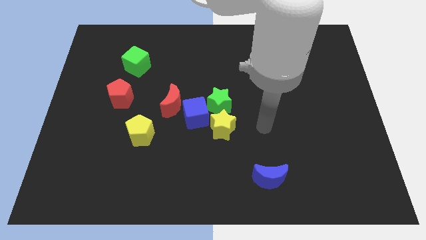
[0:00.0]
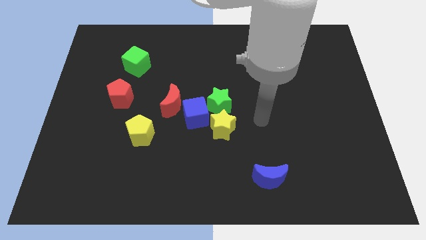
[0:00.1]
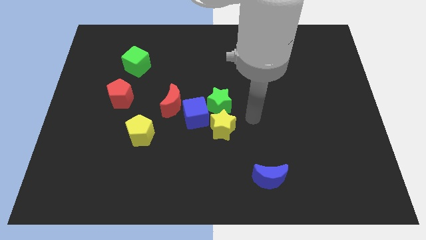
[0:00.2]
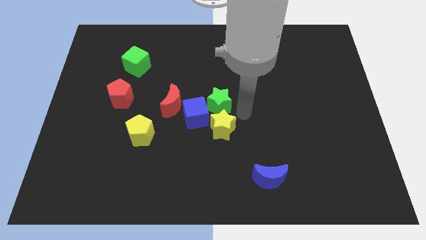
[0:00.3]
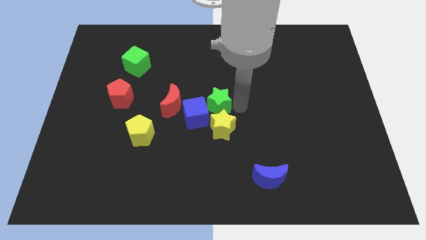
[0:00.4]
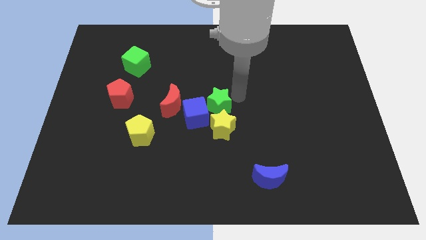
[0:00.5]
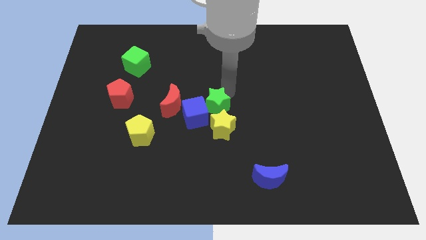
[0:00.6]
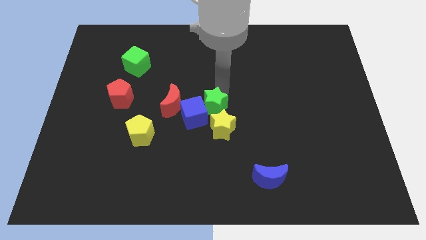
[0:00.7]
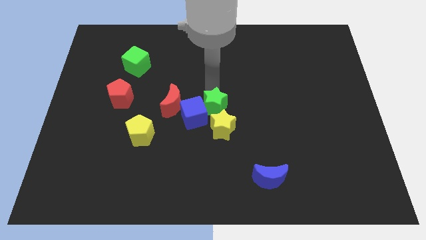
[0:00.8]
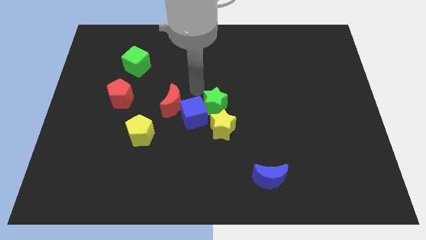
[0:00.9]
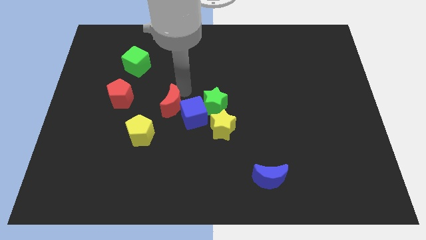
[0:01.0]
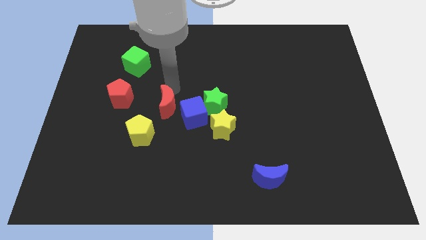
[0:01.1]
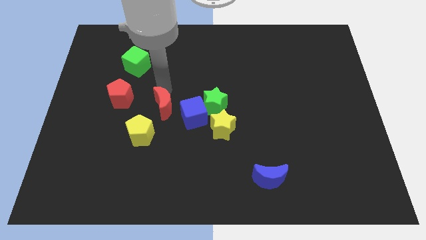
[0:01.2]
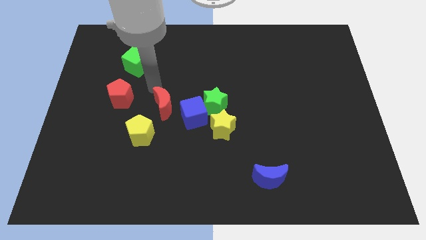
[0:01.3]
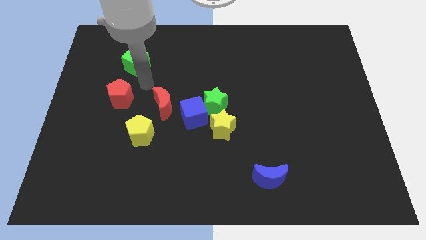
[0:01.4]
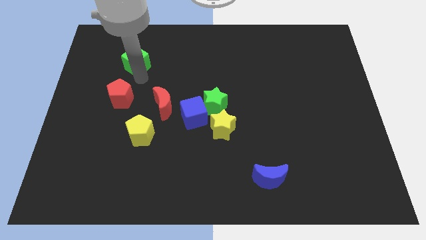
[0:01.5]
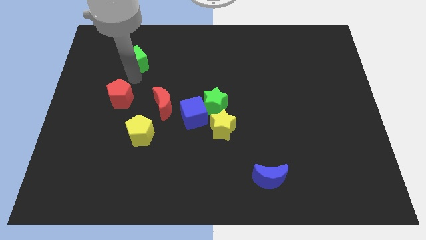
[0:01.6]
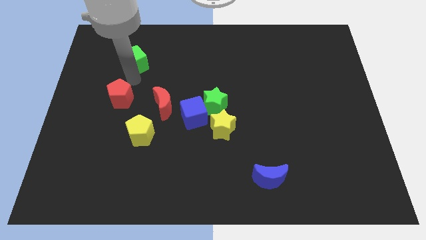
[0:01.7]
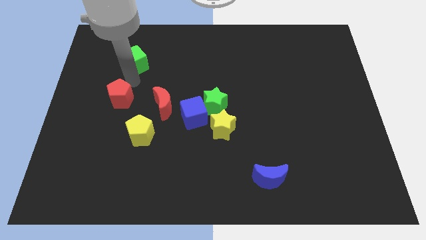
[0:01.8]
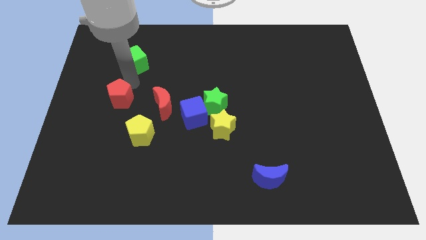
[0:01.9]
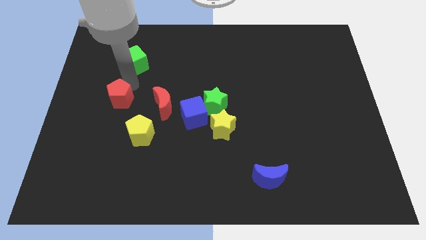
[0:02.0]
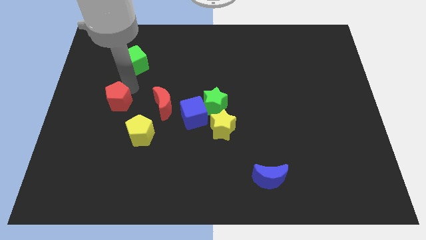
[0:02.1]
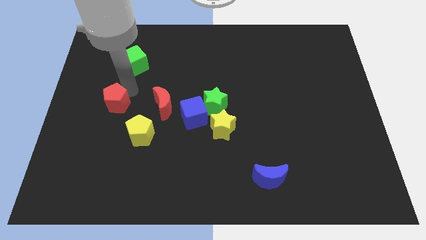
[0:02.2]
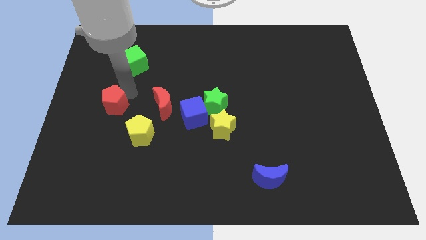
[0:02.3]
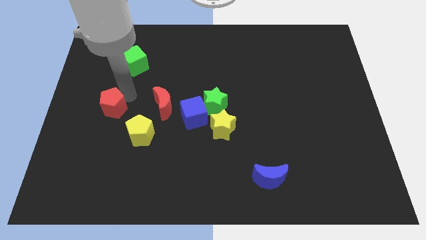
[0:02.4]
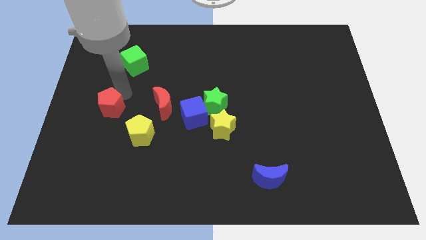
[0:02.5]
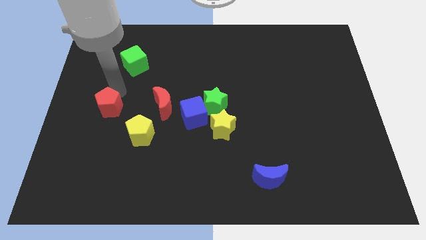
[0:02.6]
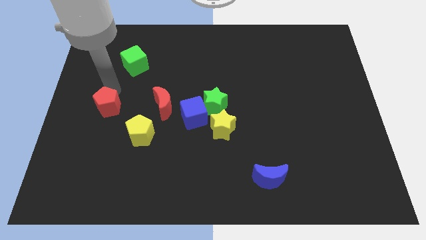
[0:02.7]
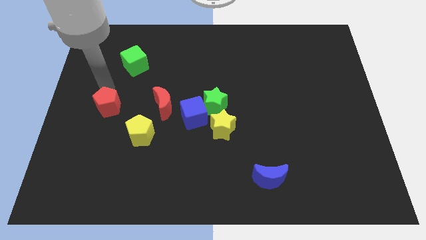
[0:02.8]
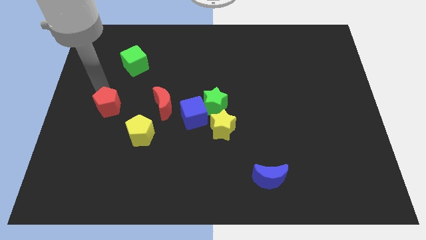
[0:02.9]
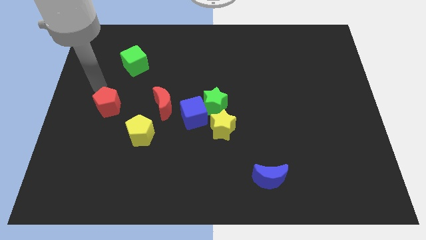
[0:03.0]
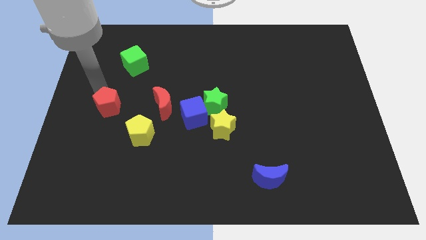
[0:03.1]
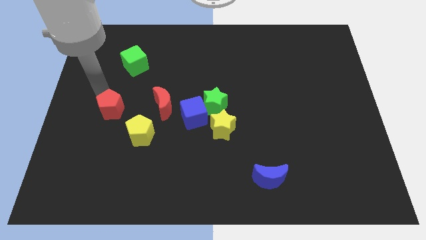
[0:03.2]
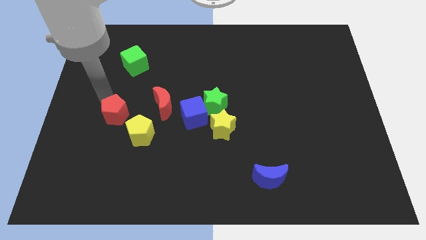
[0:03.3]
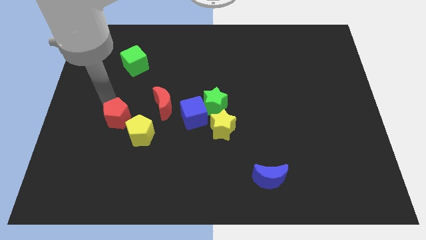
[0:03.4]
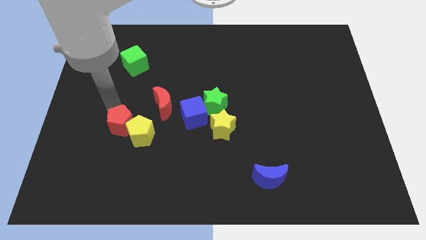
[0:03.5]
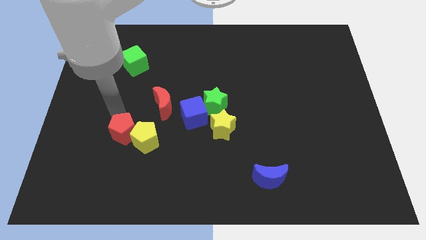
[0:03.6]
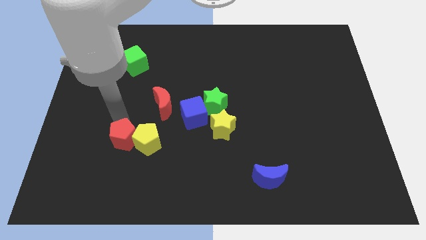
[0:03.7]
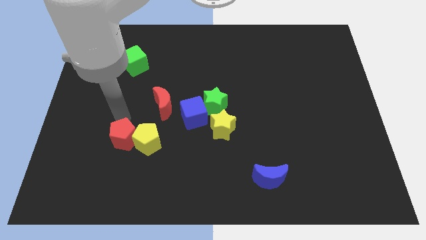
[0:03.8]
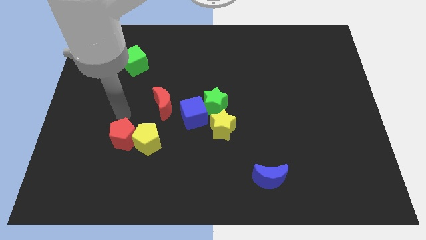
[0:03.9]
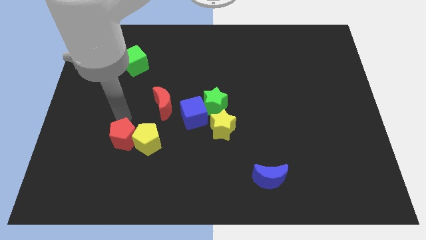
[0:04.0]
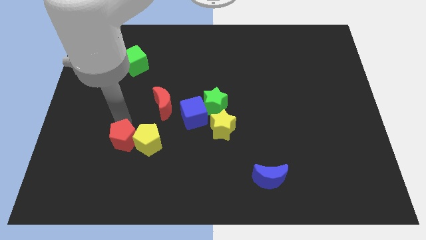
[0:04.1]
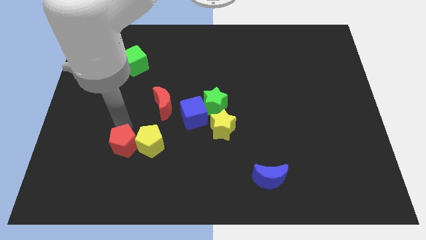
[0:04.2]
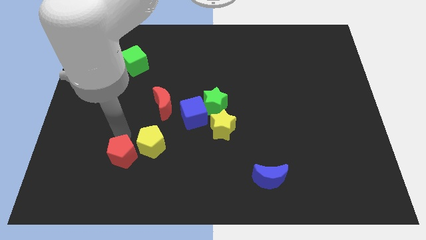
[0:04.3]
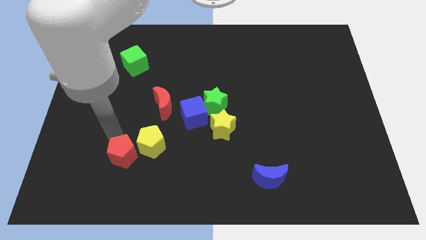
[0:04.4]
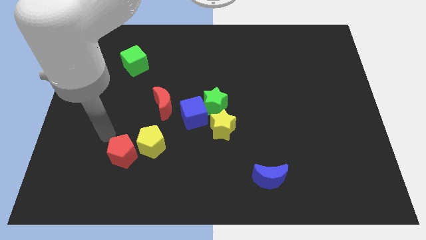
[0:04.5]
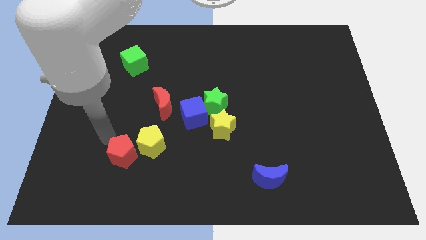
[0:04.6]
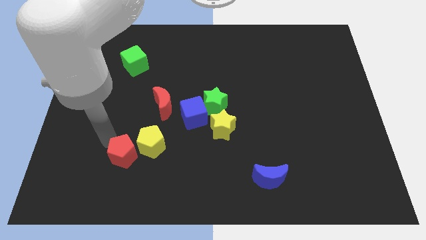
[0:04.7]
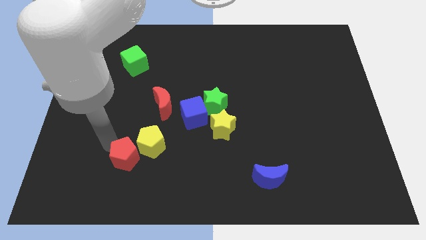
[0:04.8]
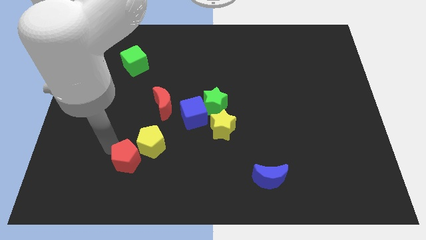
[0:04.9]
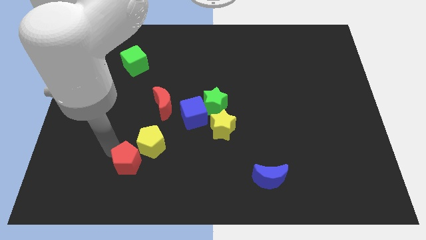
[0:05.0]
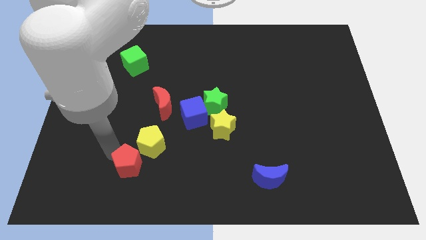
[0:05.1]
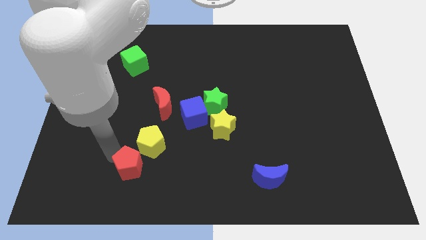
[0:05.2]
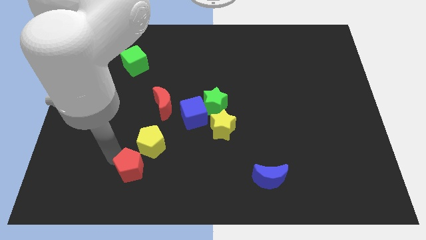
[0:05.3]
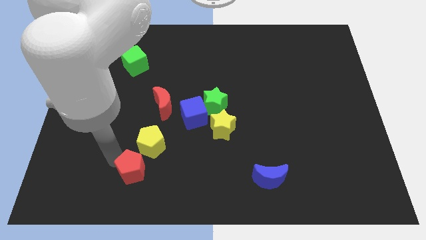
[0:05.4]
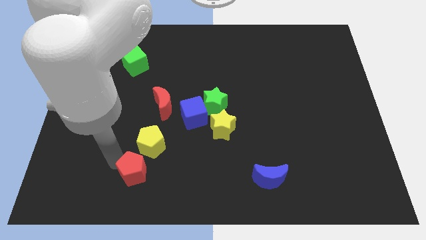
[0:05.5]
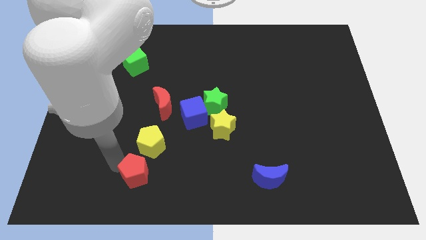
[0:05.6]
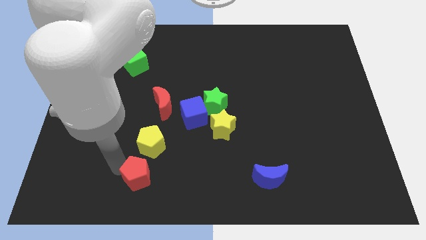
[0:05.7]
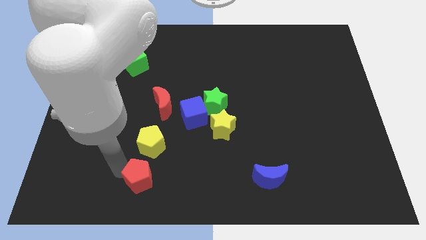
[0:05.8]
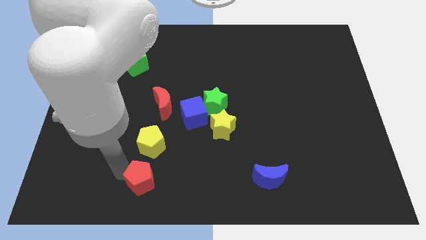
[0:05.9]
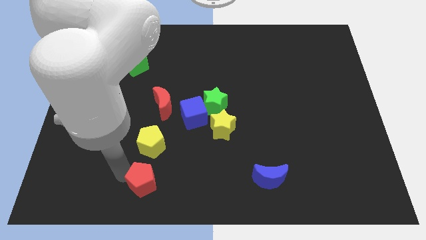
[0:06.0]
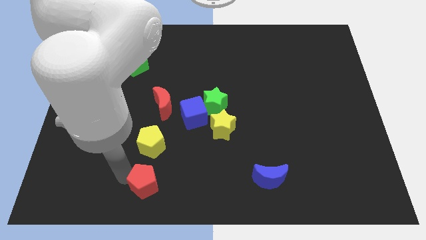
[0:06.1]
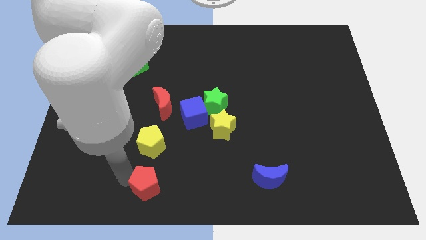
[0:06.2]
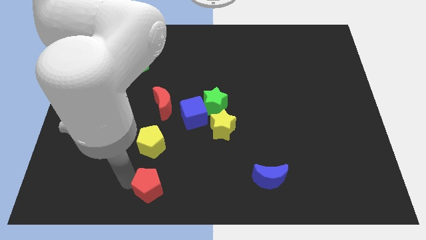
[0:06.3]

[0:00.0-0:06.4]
push the red pentagon to the bottom side

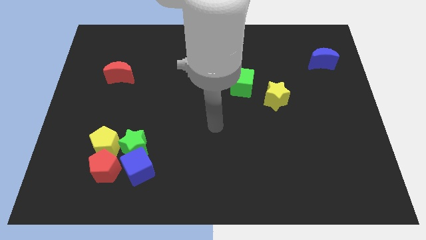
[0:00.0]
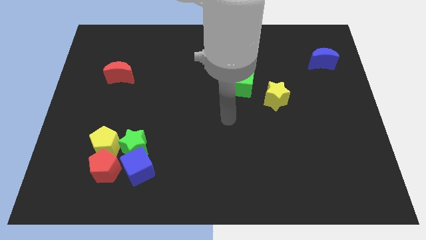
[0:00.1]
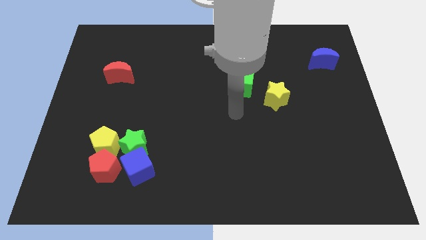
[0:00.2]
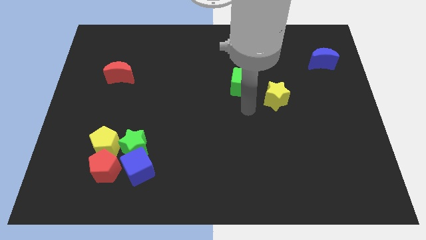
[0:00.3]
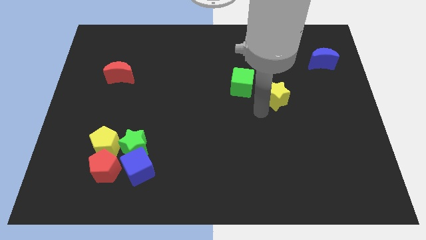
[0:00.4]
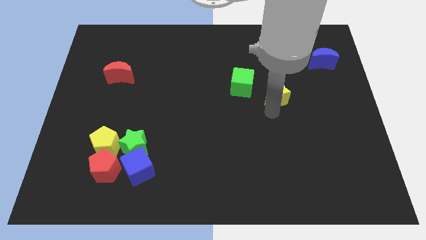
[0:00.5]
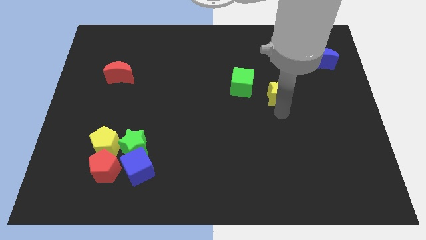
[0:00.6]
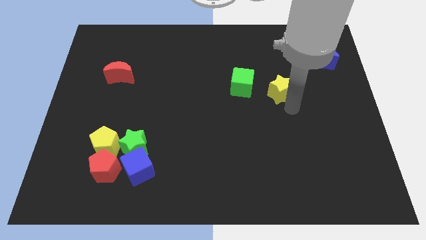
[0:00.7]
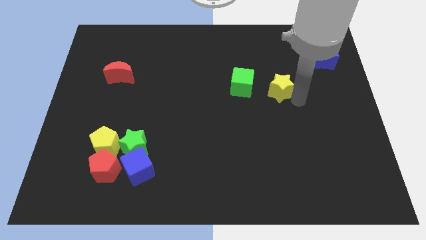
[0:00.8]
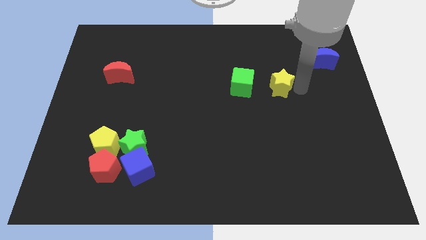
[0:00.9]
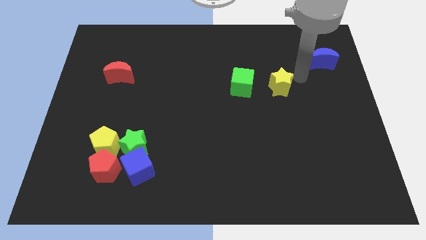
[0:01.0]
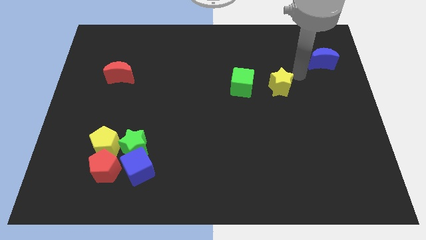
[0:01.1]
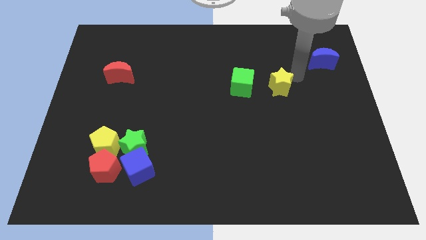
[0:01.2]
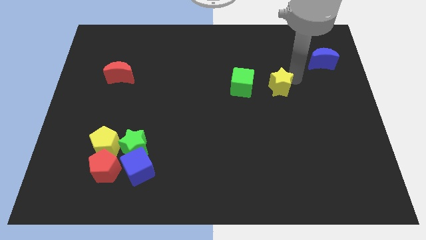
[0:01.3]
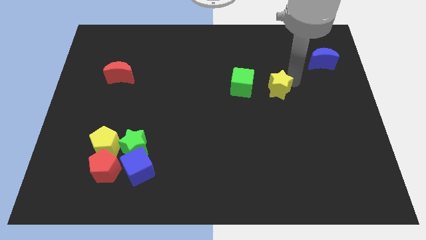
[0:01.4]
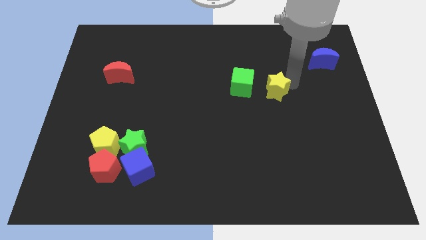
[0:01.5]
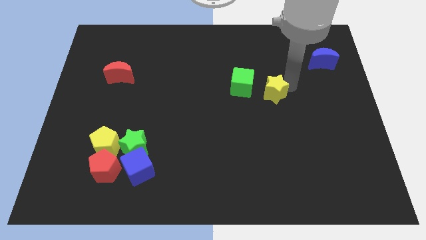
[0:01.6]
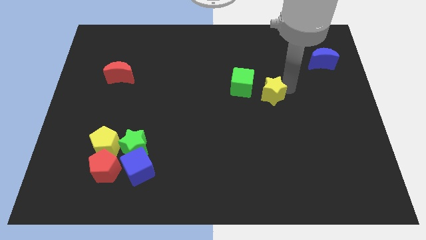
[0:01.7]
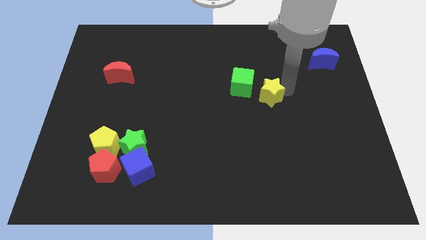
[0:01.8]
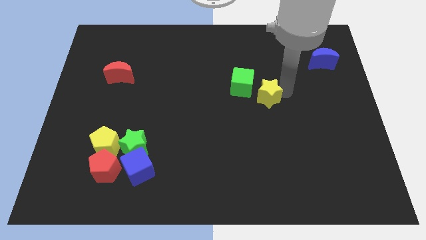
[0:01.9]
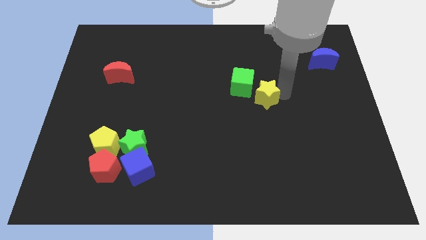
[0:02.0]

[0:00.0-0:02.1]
put the yellow star to the middle of the board
